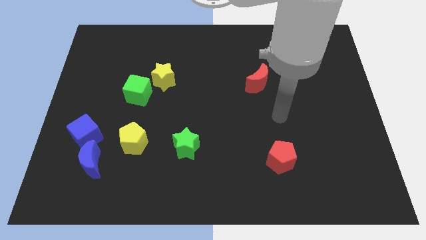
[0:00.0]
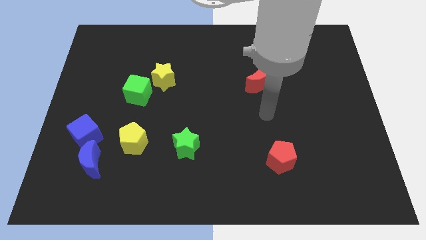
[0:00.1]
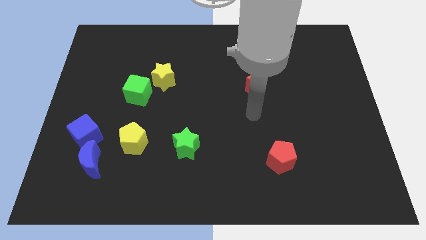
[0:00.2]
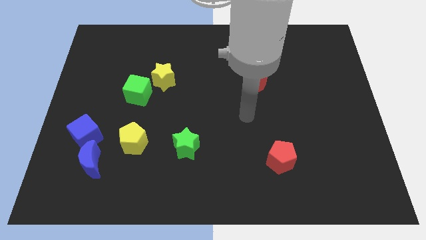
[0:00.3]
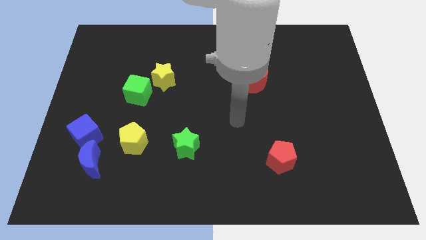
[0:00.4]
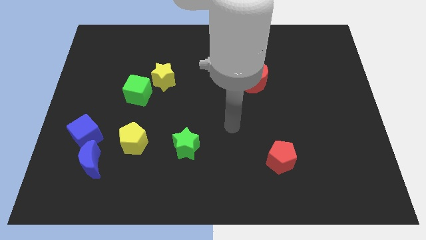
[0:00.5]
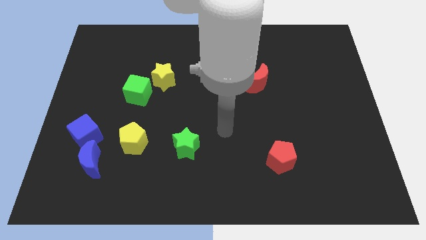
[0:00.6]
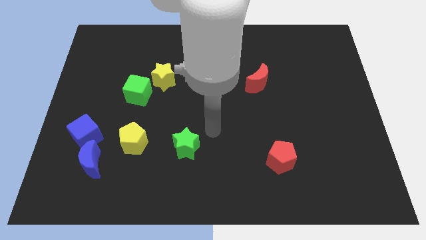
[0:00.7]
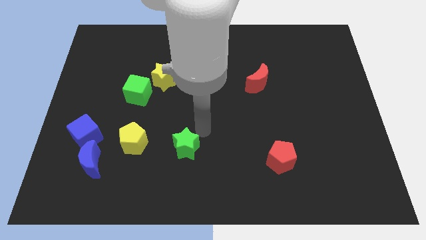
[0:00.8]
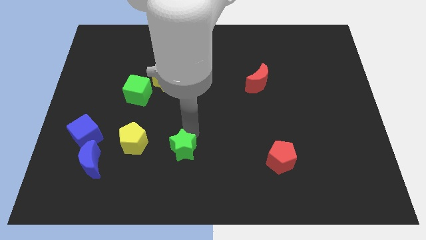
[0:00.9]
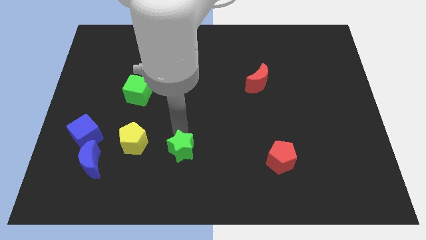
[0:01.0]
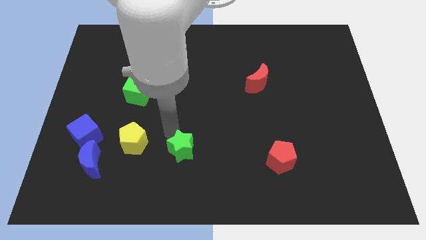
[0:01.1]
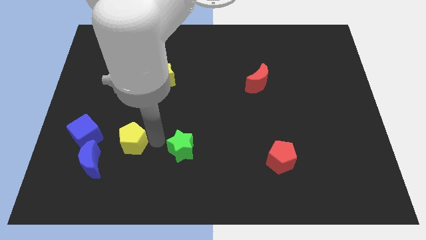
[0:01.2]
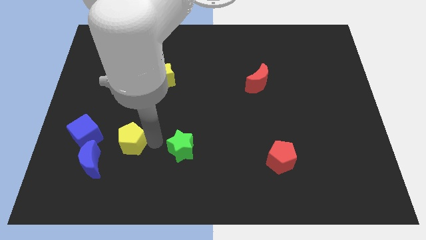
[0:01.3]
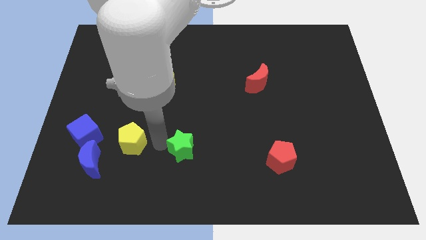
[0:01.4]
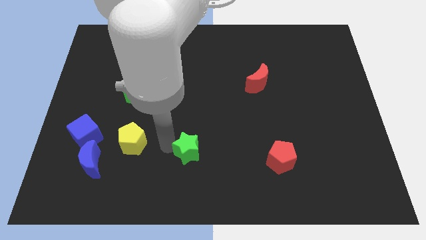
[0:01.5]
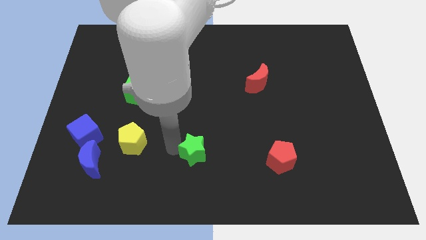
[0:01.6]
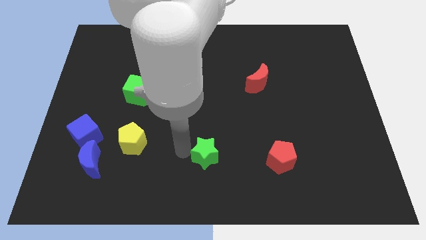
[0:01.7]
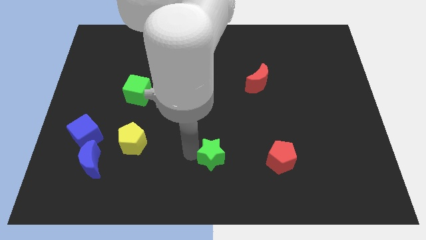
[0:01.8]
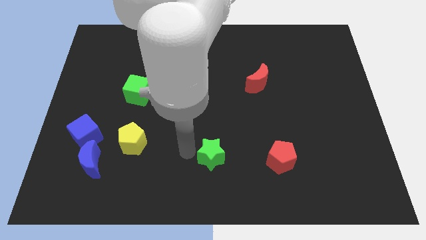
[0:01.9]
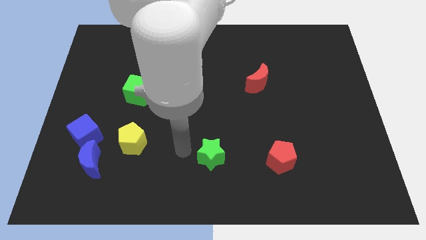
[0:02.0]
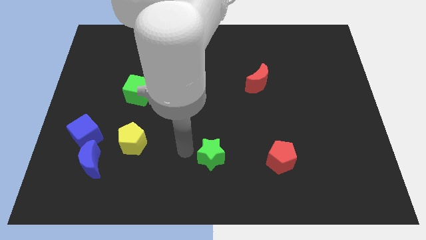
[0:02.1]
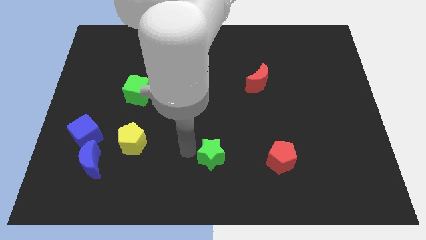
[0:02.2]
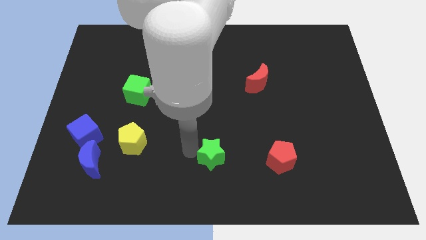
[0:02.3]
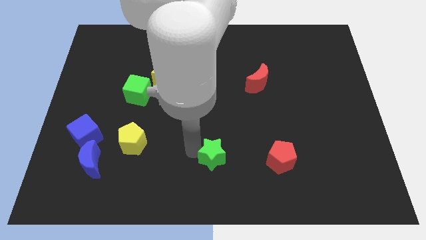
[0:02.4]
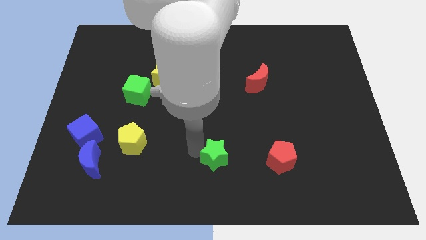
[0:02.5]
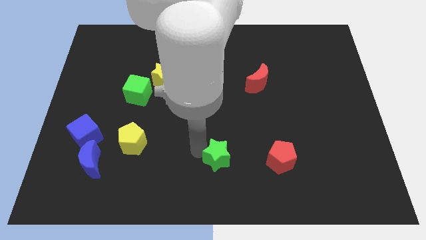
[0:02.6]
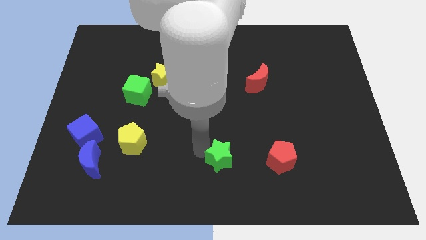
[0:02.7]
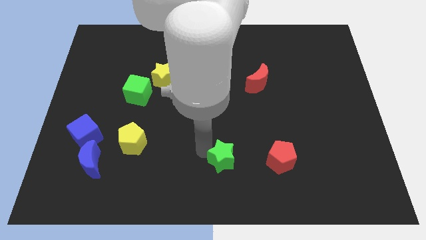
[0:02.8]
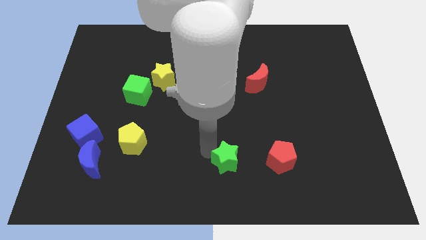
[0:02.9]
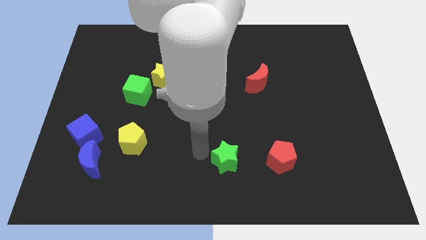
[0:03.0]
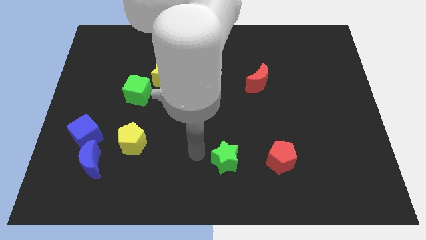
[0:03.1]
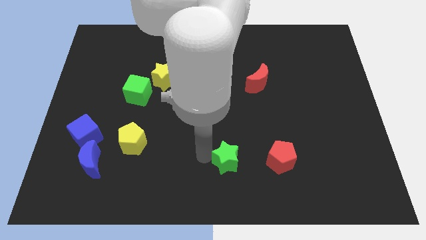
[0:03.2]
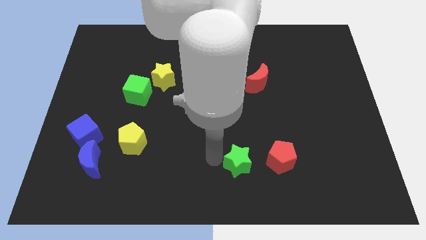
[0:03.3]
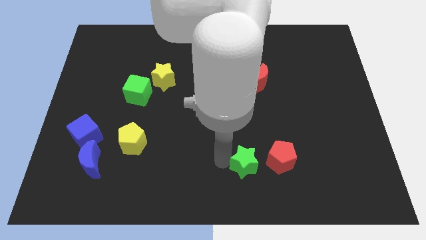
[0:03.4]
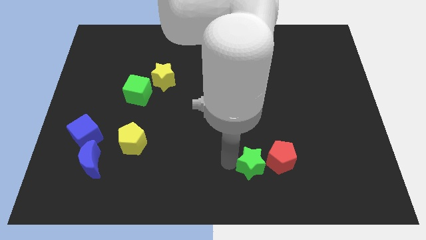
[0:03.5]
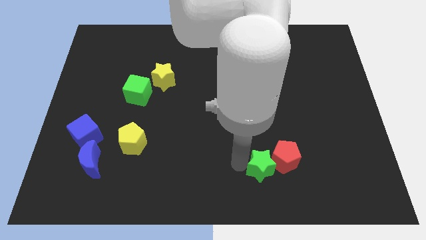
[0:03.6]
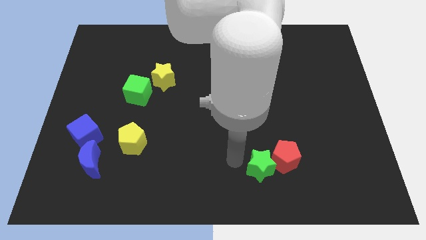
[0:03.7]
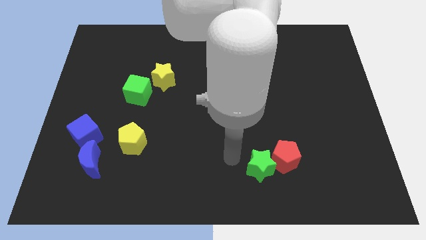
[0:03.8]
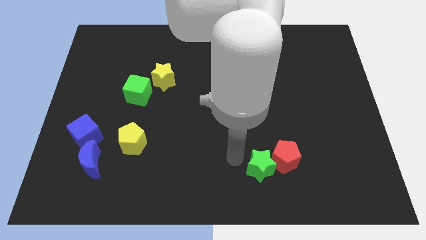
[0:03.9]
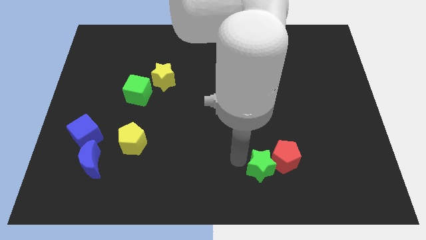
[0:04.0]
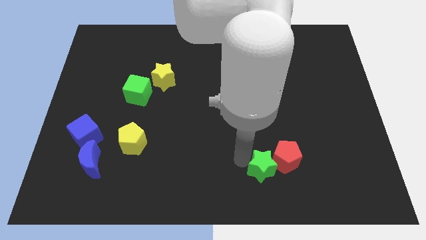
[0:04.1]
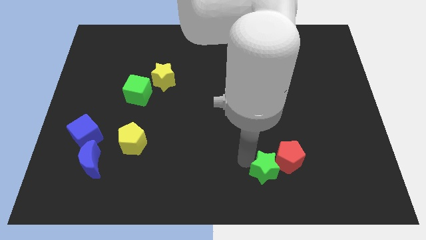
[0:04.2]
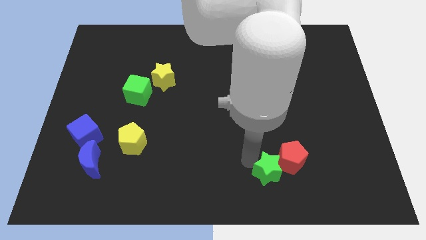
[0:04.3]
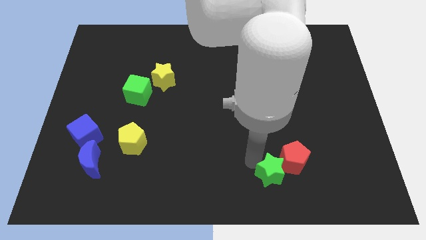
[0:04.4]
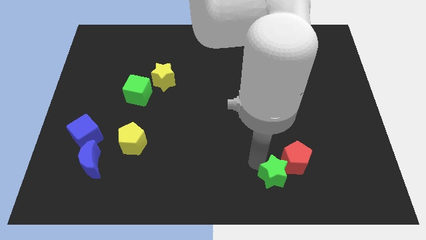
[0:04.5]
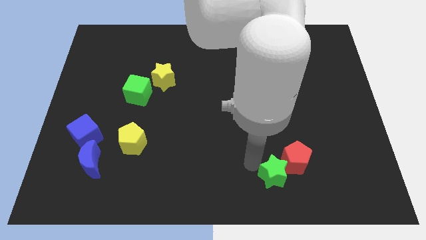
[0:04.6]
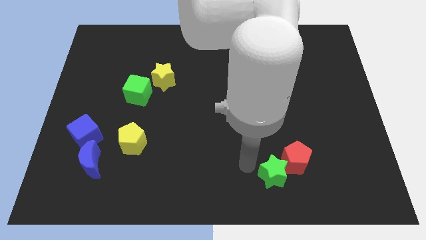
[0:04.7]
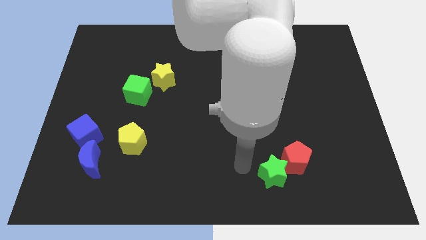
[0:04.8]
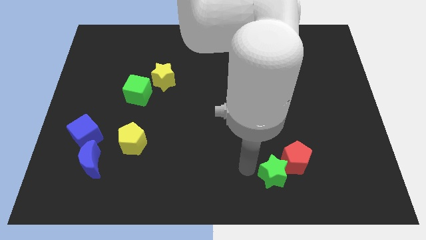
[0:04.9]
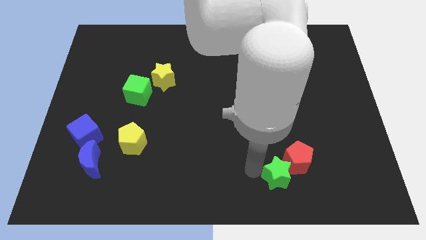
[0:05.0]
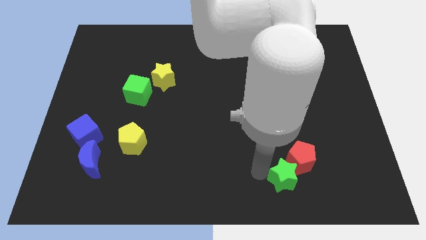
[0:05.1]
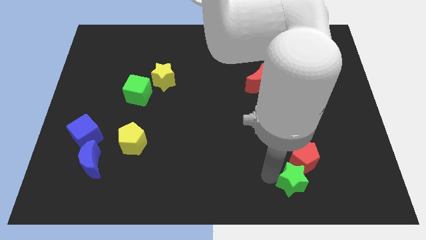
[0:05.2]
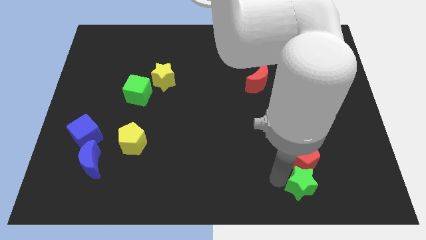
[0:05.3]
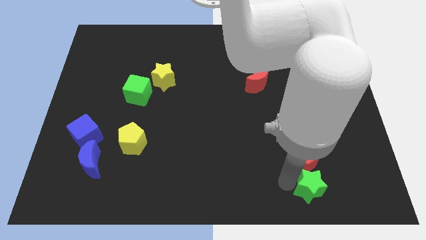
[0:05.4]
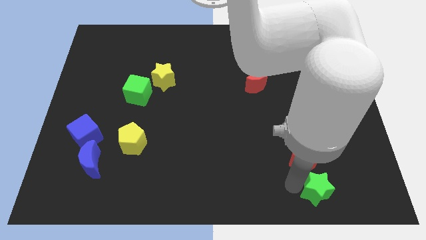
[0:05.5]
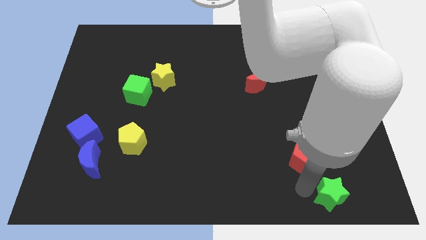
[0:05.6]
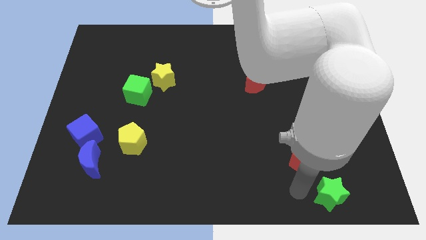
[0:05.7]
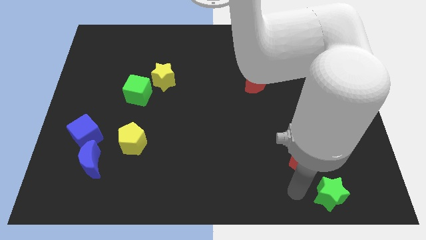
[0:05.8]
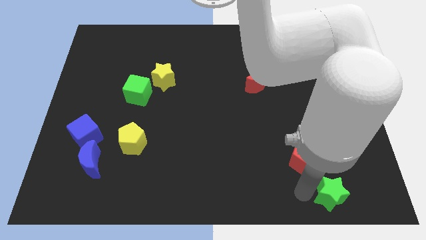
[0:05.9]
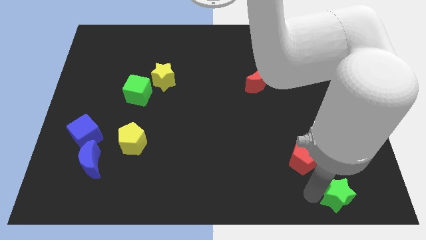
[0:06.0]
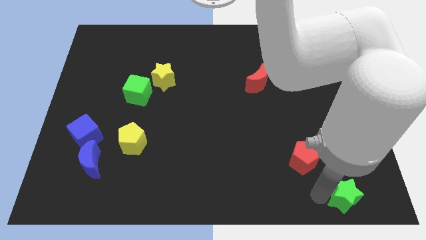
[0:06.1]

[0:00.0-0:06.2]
slide the green star to the bottom right corner
